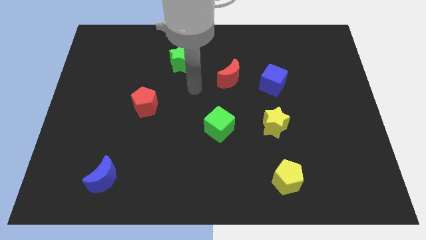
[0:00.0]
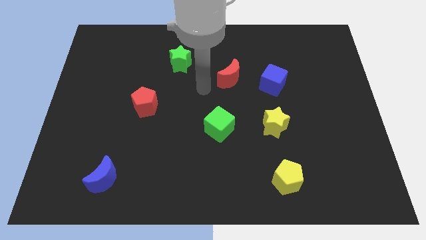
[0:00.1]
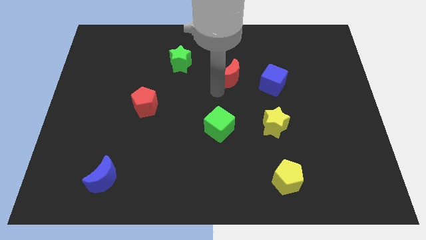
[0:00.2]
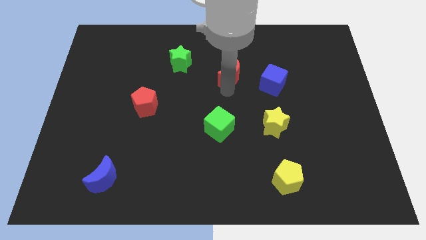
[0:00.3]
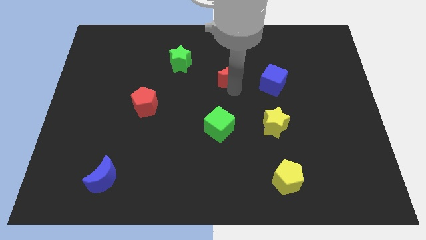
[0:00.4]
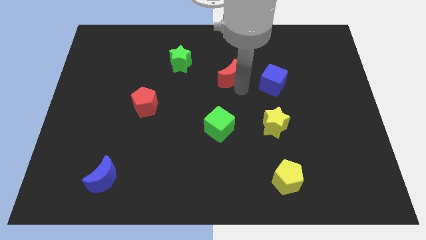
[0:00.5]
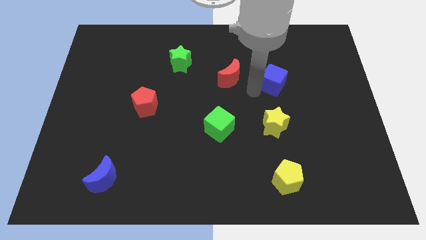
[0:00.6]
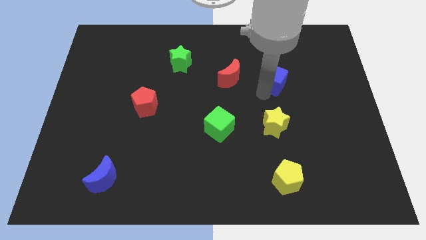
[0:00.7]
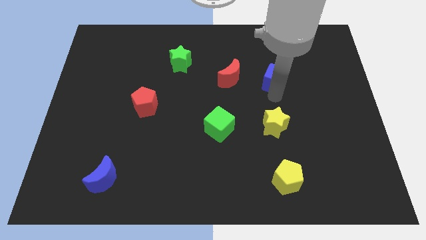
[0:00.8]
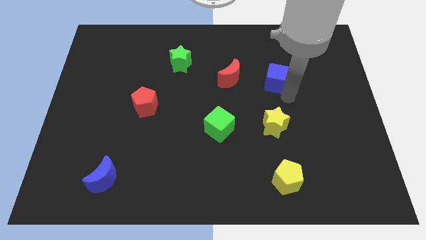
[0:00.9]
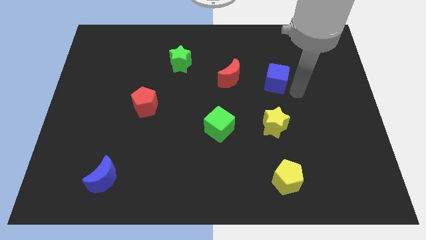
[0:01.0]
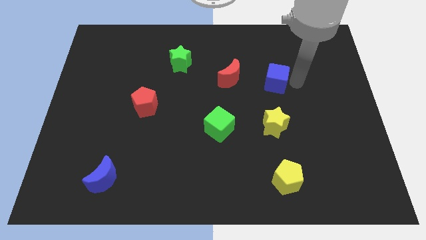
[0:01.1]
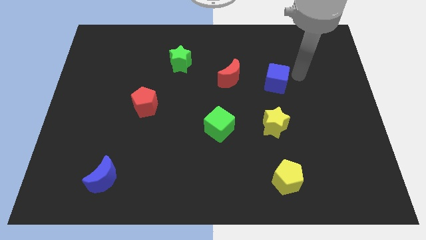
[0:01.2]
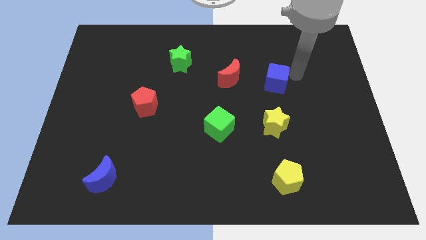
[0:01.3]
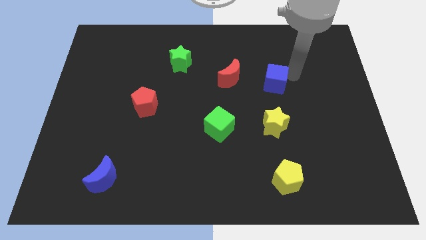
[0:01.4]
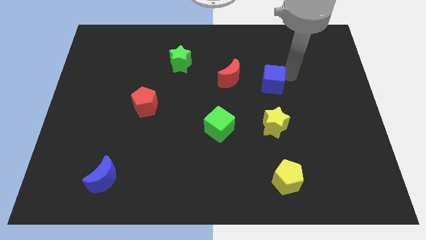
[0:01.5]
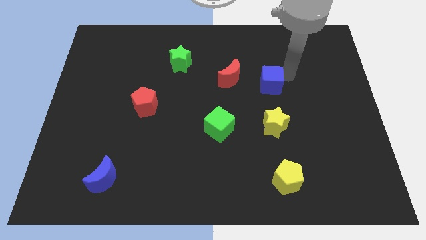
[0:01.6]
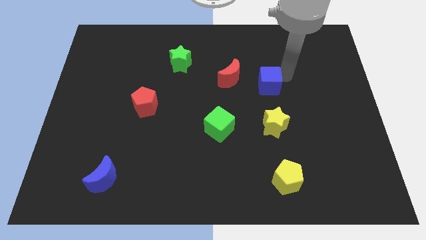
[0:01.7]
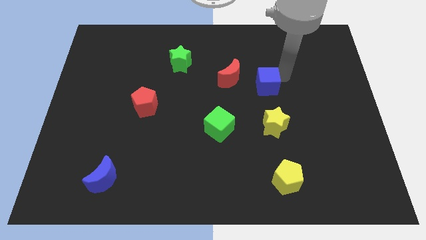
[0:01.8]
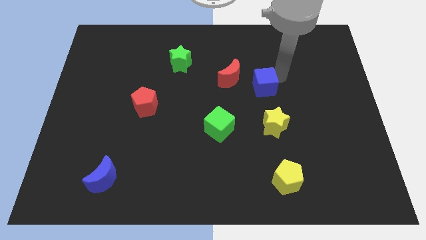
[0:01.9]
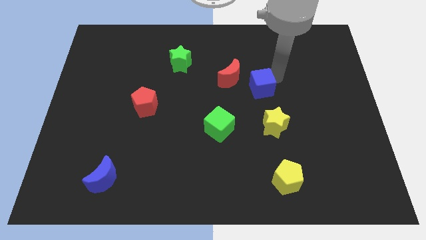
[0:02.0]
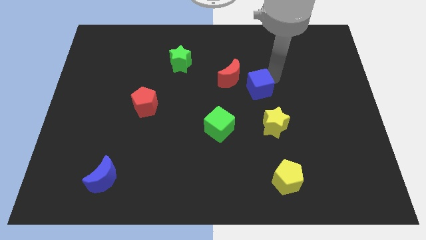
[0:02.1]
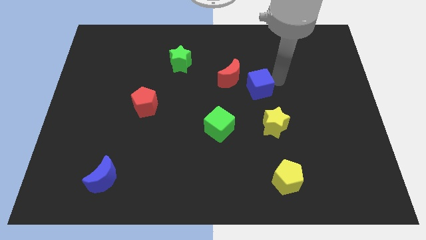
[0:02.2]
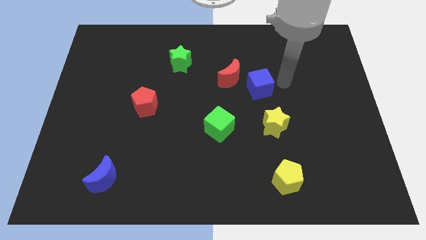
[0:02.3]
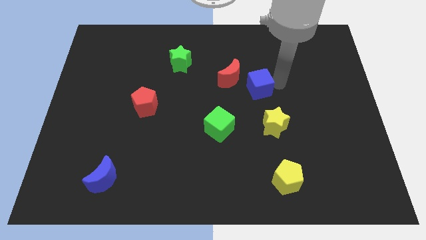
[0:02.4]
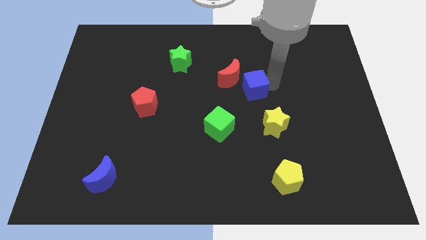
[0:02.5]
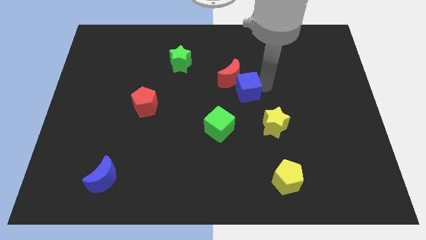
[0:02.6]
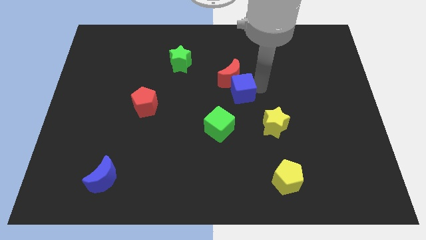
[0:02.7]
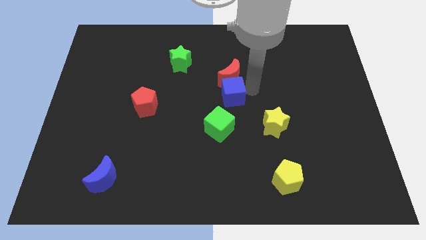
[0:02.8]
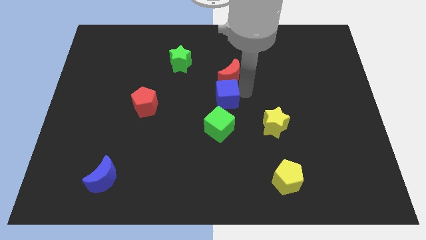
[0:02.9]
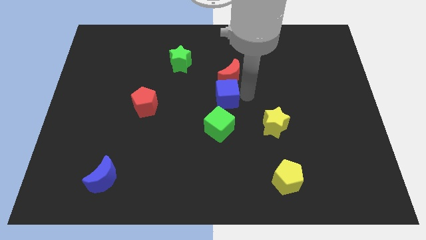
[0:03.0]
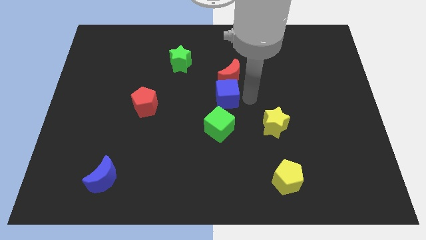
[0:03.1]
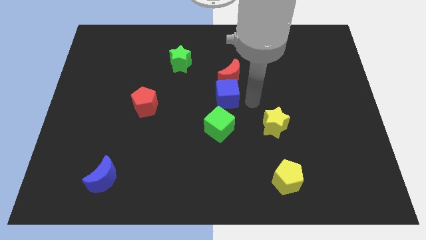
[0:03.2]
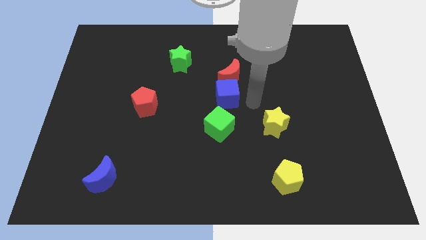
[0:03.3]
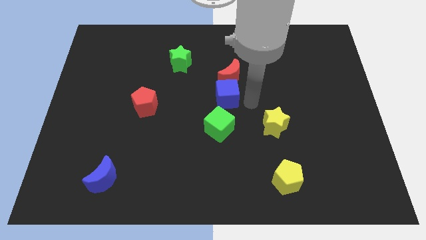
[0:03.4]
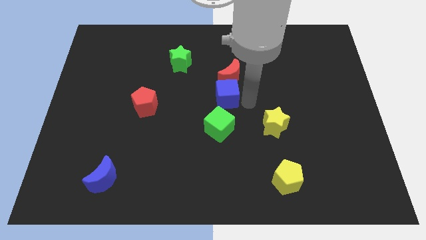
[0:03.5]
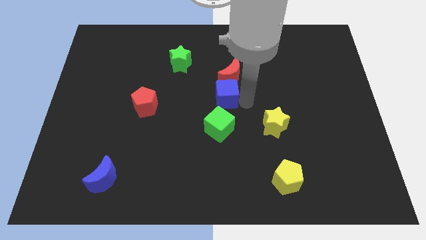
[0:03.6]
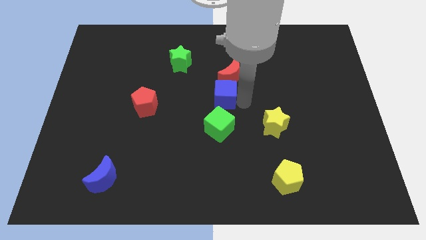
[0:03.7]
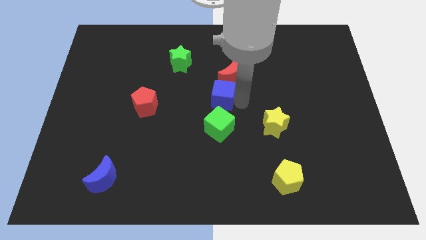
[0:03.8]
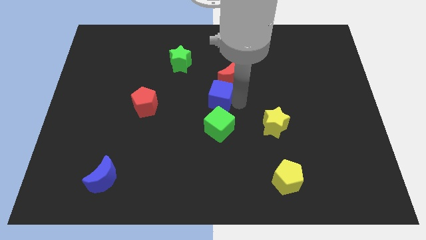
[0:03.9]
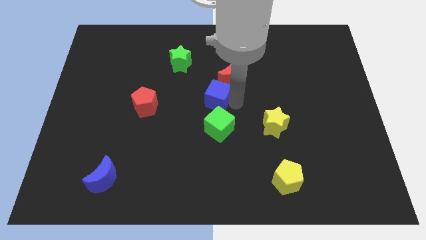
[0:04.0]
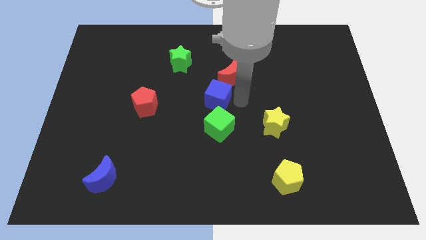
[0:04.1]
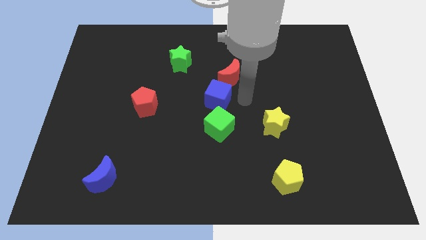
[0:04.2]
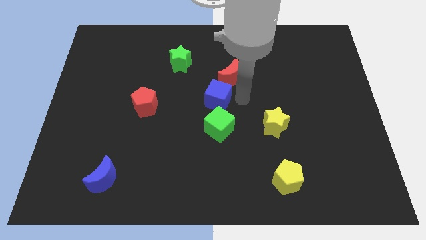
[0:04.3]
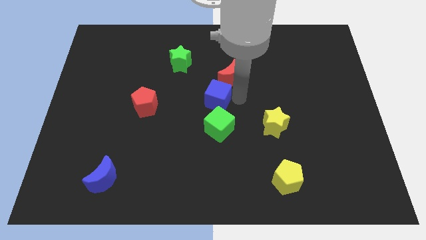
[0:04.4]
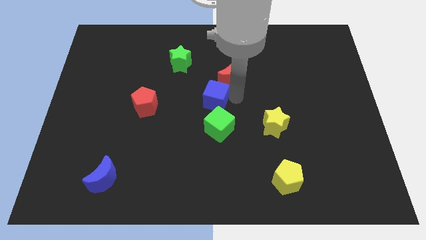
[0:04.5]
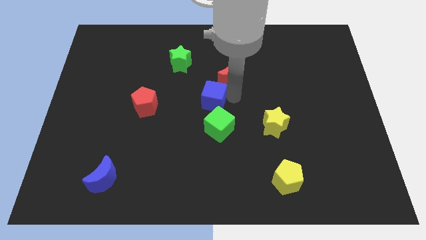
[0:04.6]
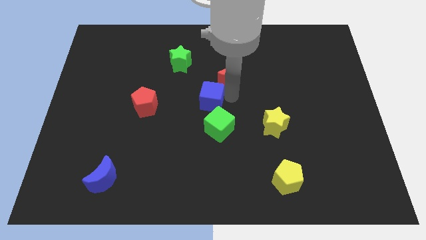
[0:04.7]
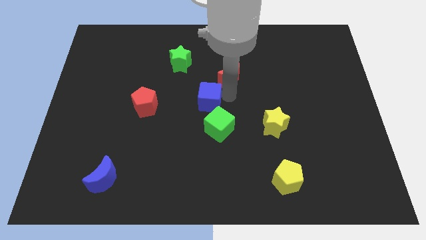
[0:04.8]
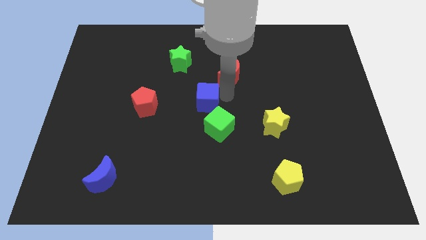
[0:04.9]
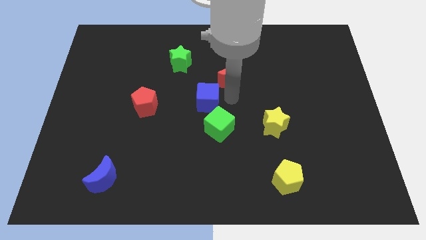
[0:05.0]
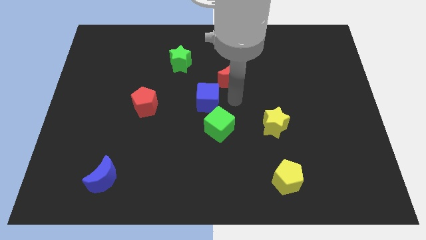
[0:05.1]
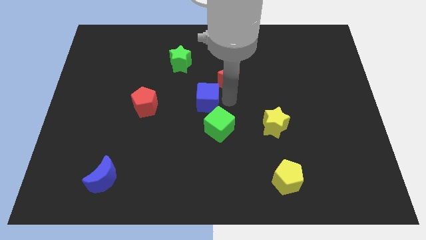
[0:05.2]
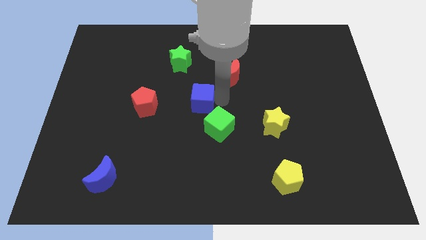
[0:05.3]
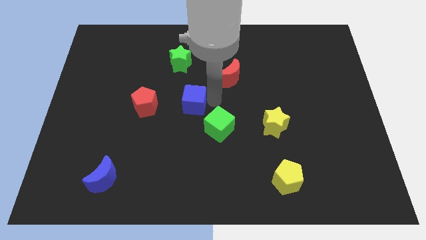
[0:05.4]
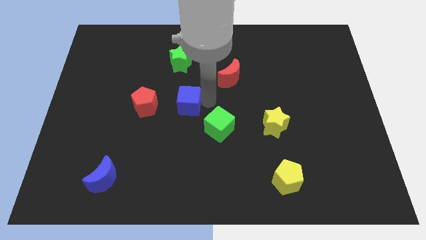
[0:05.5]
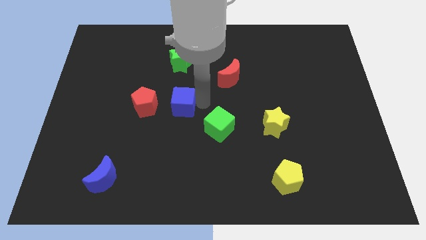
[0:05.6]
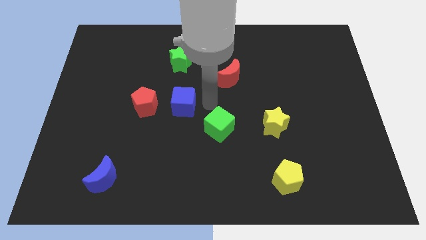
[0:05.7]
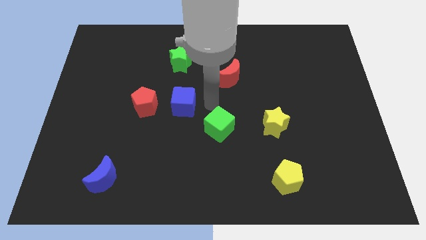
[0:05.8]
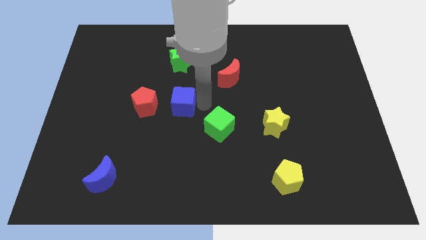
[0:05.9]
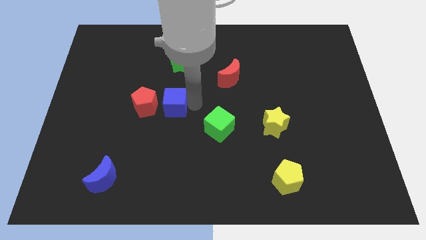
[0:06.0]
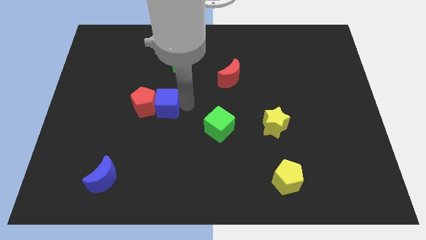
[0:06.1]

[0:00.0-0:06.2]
put the blue cube towards the red pentagon
